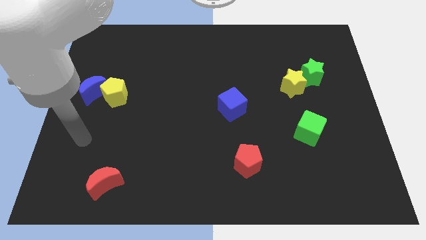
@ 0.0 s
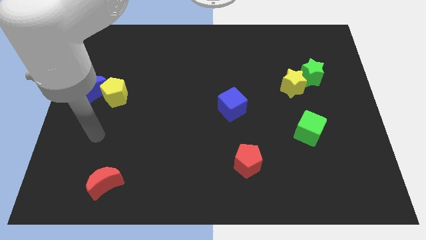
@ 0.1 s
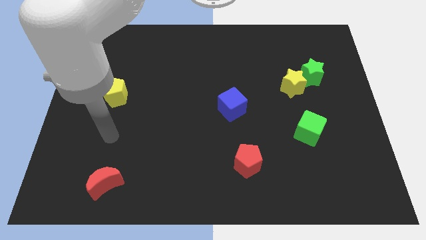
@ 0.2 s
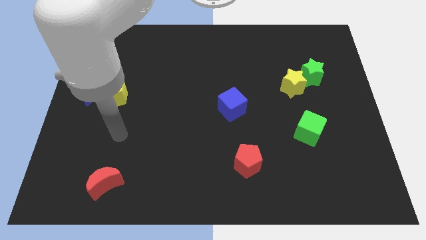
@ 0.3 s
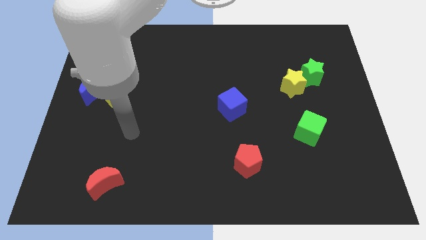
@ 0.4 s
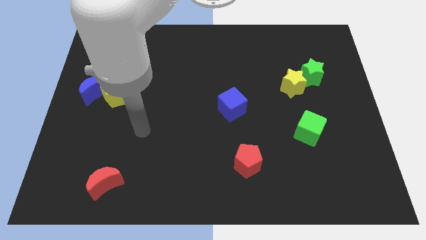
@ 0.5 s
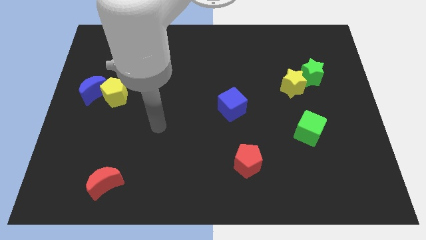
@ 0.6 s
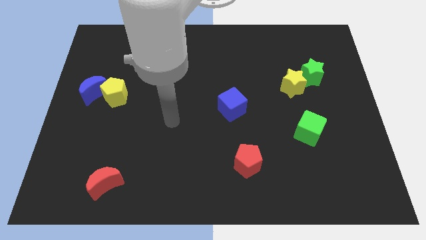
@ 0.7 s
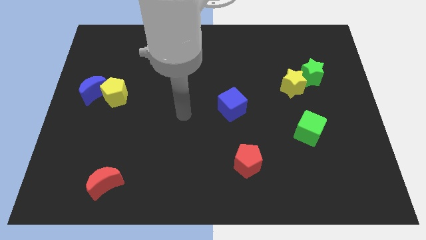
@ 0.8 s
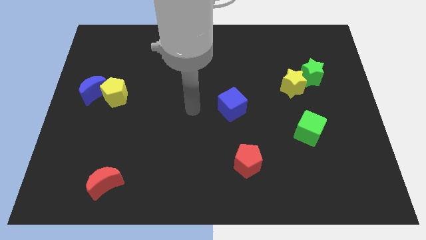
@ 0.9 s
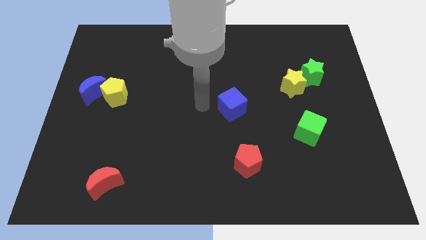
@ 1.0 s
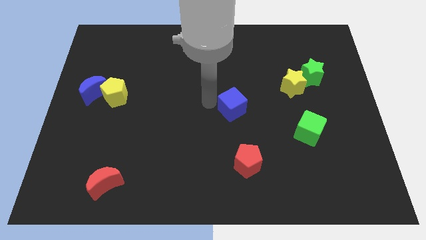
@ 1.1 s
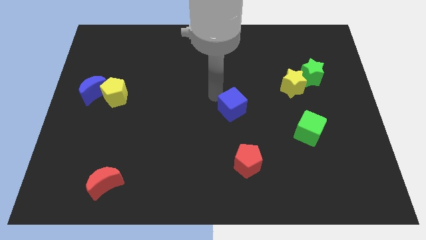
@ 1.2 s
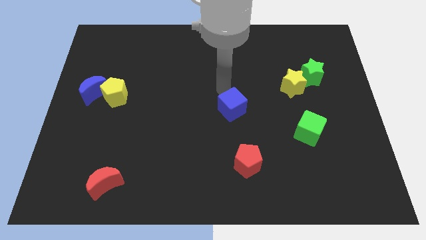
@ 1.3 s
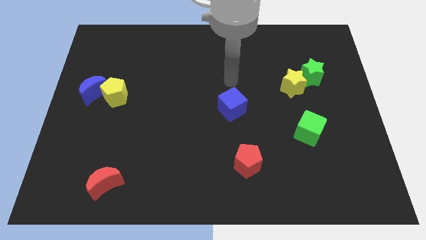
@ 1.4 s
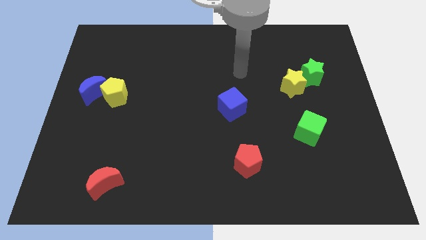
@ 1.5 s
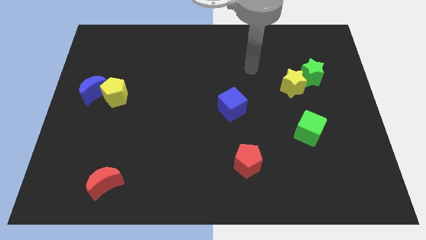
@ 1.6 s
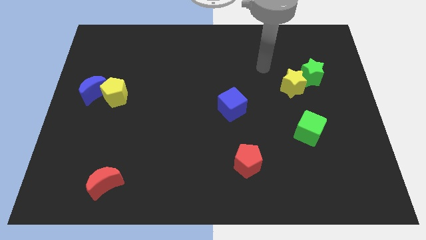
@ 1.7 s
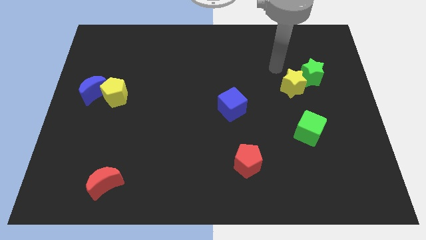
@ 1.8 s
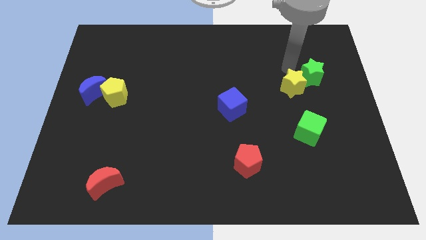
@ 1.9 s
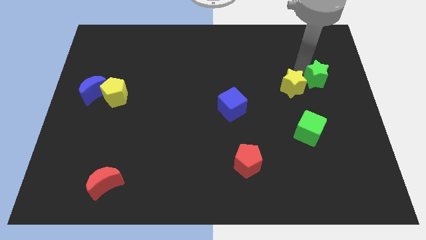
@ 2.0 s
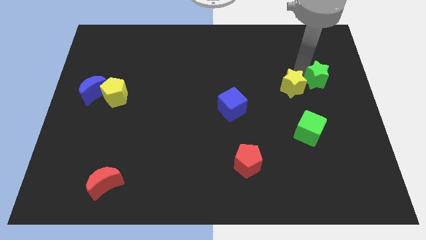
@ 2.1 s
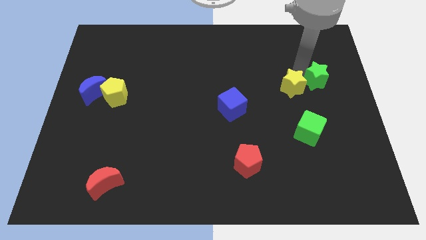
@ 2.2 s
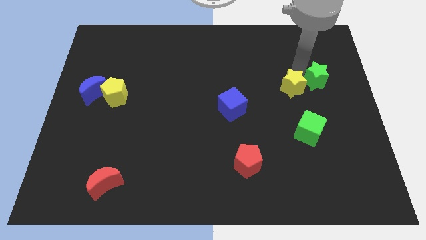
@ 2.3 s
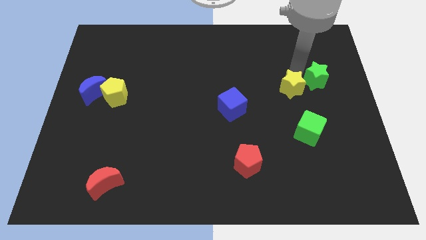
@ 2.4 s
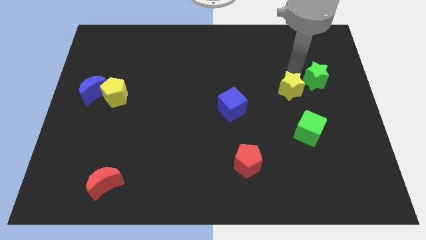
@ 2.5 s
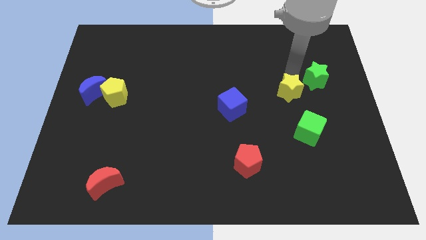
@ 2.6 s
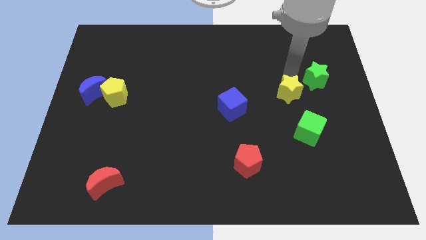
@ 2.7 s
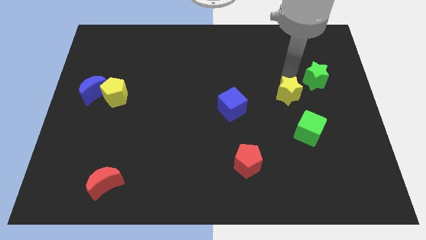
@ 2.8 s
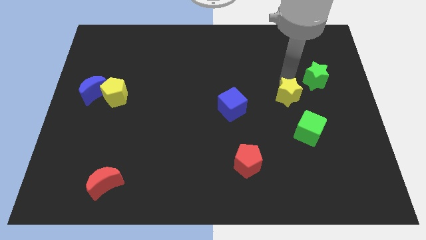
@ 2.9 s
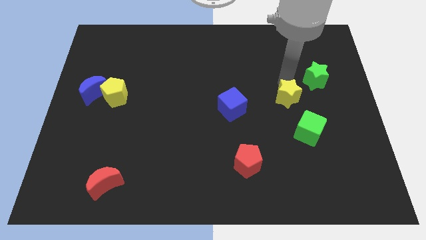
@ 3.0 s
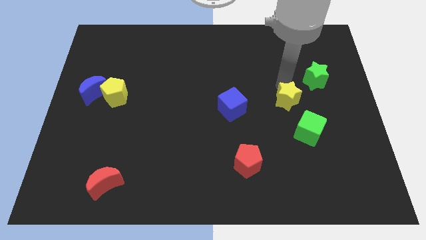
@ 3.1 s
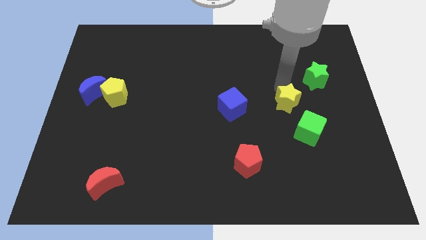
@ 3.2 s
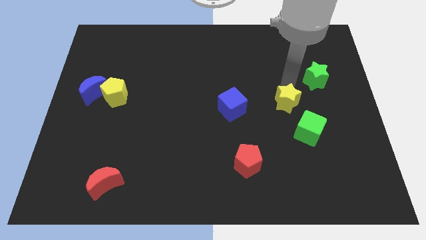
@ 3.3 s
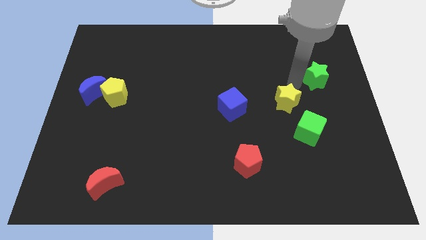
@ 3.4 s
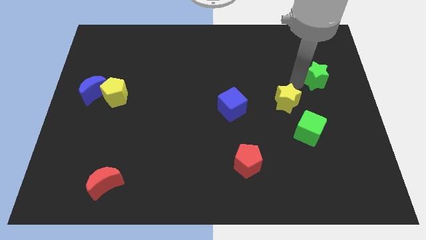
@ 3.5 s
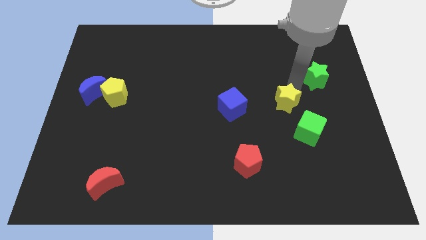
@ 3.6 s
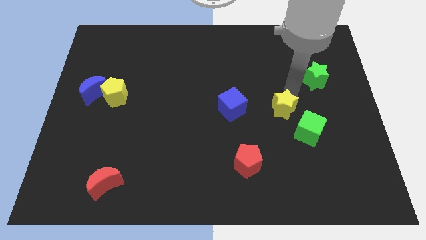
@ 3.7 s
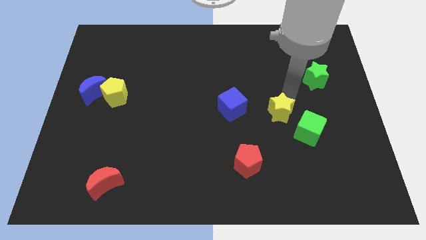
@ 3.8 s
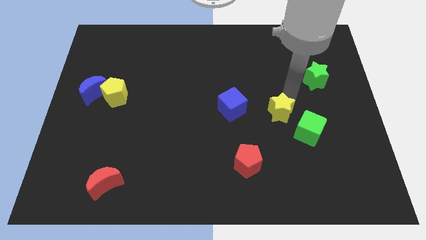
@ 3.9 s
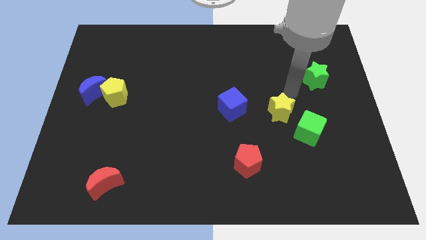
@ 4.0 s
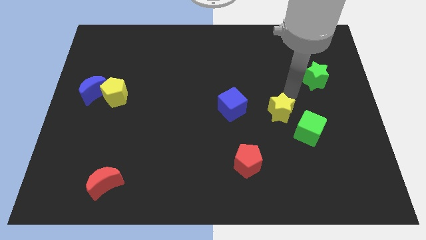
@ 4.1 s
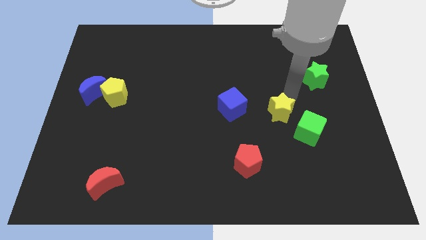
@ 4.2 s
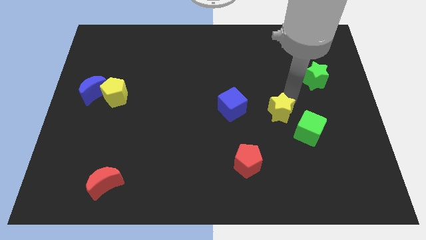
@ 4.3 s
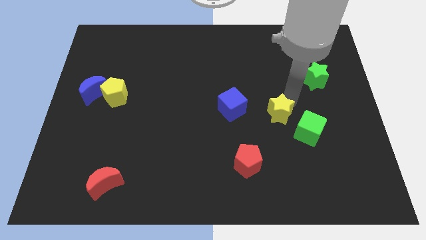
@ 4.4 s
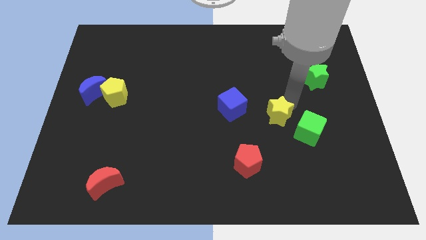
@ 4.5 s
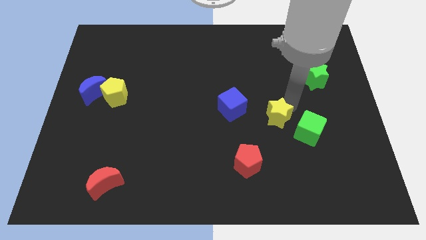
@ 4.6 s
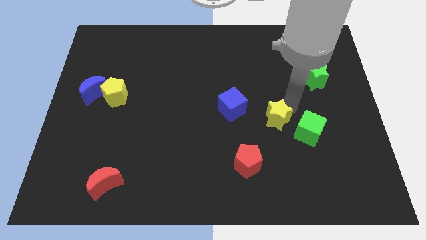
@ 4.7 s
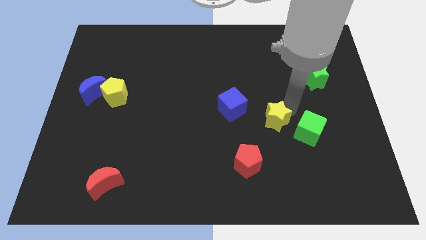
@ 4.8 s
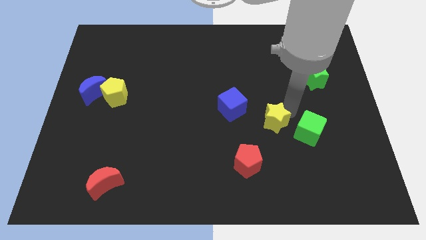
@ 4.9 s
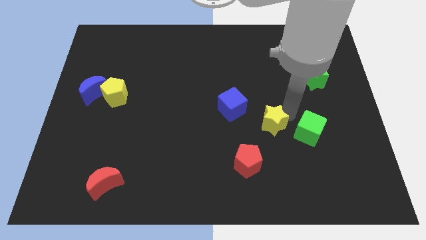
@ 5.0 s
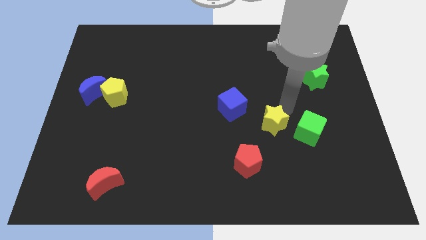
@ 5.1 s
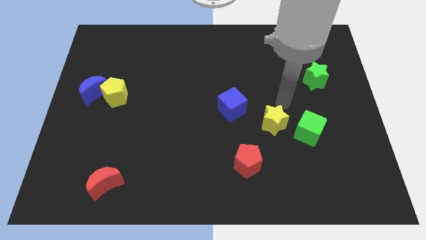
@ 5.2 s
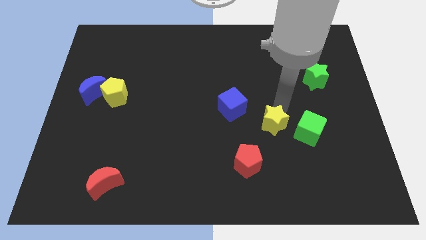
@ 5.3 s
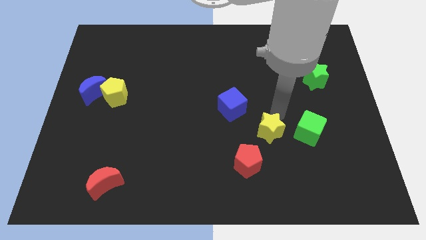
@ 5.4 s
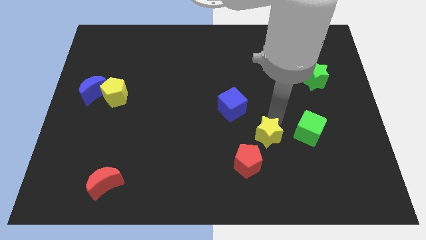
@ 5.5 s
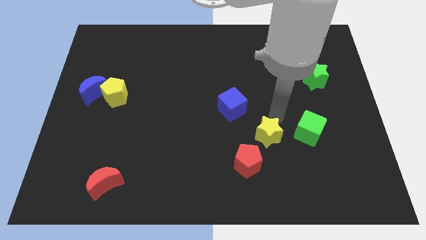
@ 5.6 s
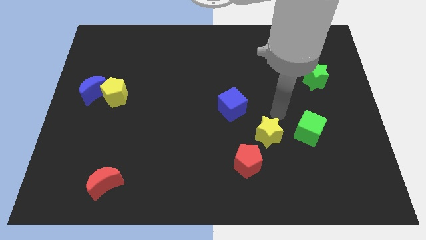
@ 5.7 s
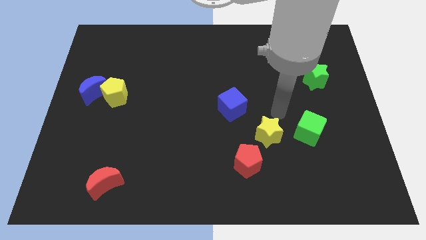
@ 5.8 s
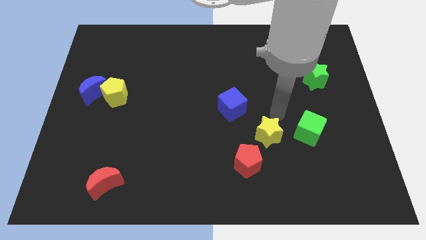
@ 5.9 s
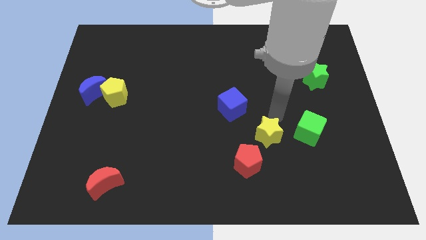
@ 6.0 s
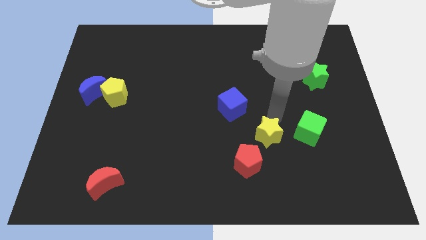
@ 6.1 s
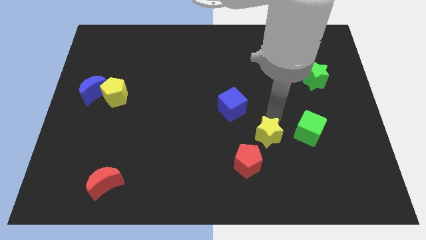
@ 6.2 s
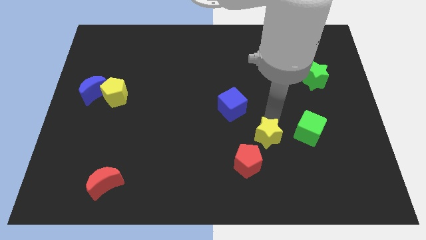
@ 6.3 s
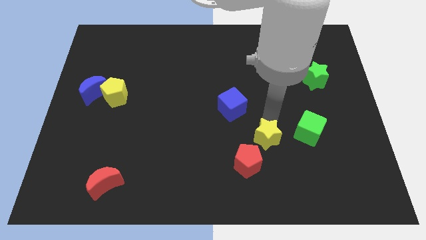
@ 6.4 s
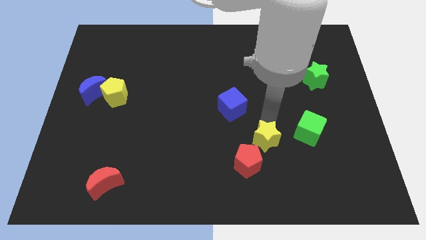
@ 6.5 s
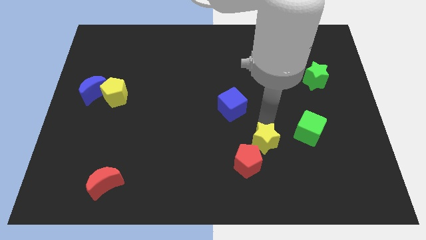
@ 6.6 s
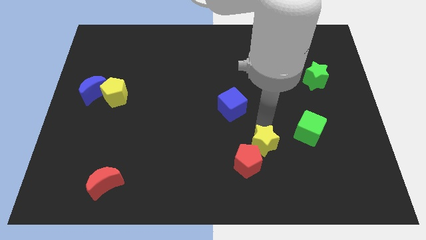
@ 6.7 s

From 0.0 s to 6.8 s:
put the yellow star close to the red pentagon
